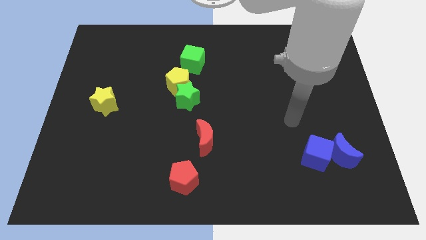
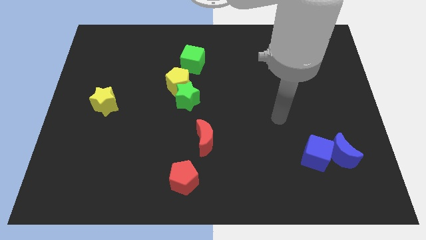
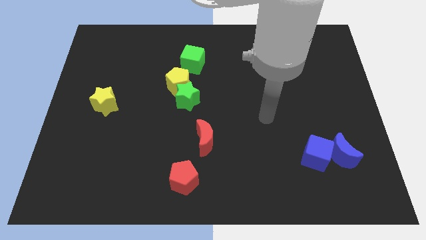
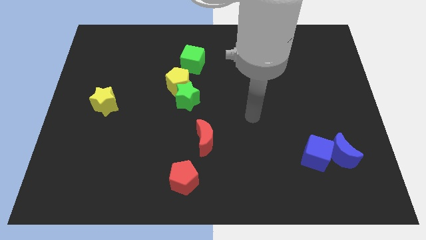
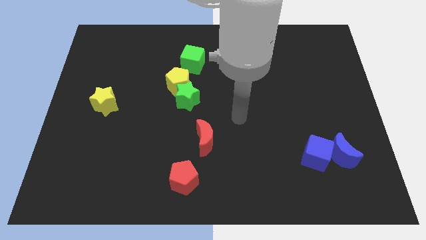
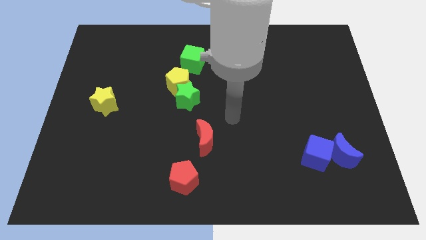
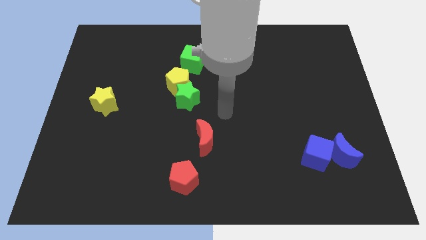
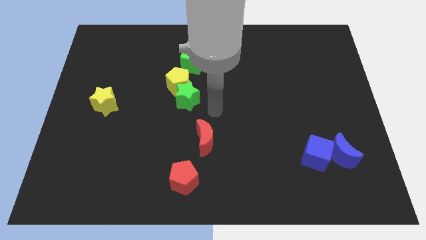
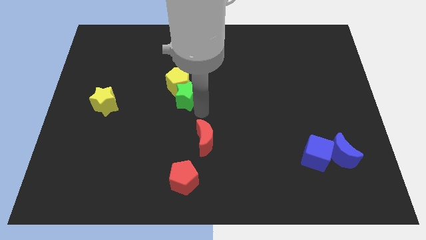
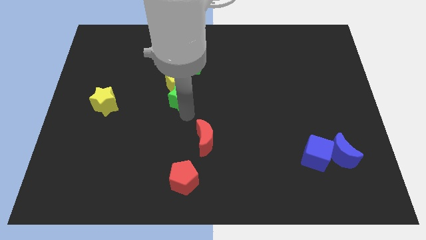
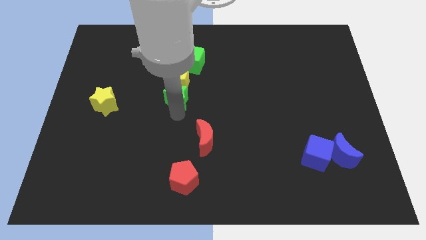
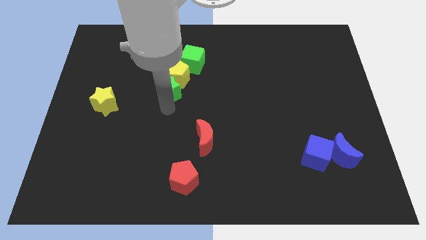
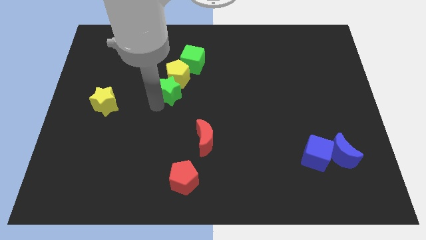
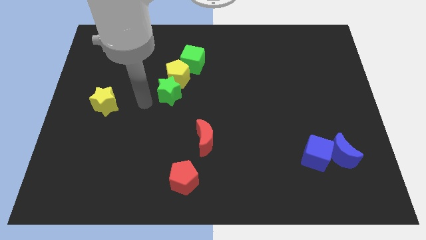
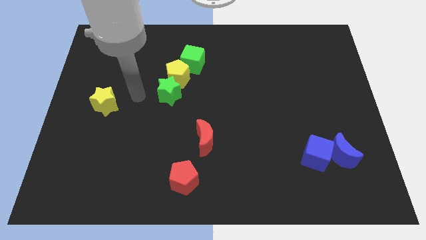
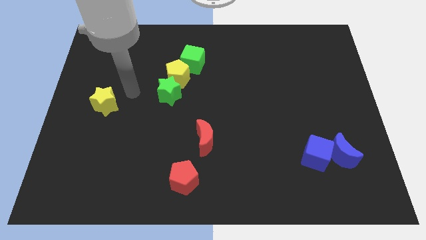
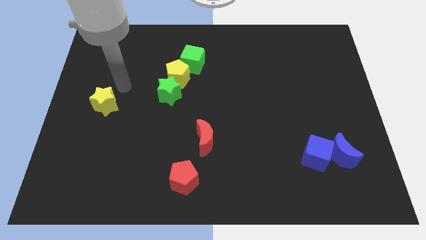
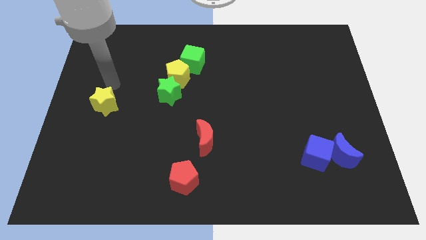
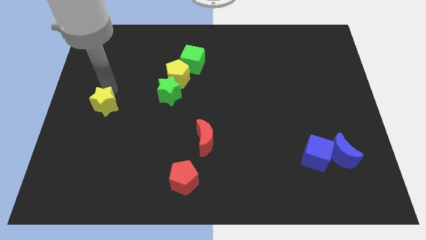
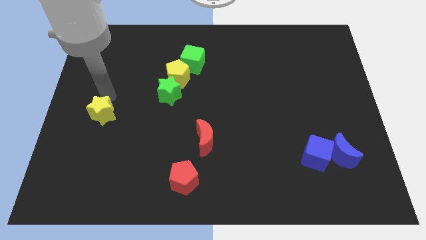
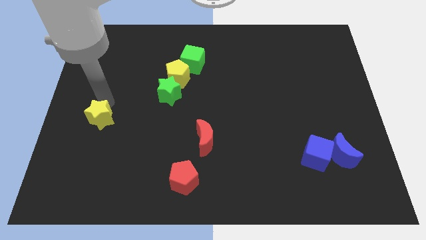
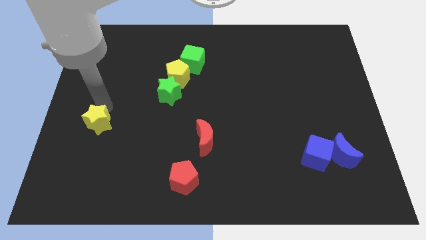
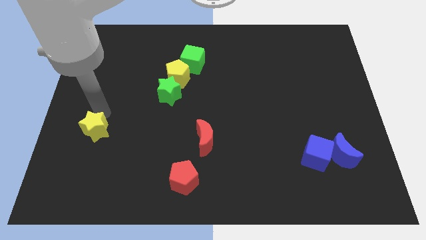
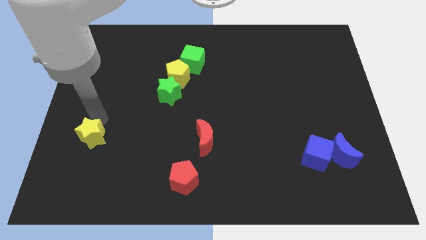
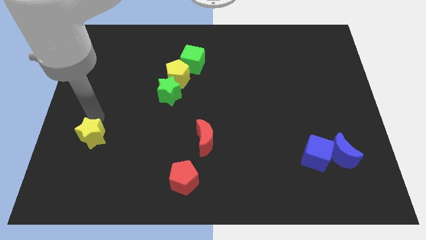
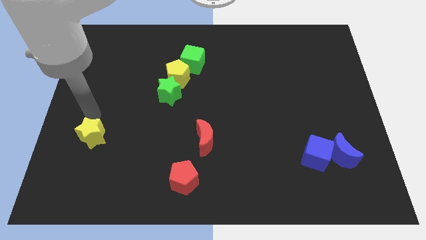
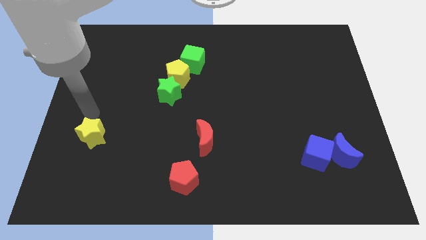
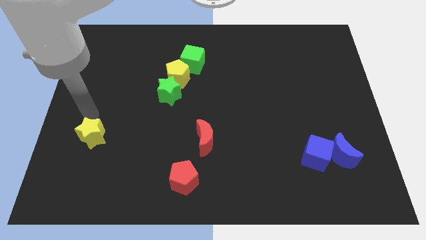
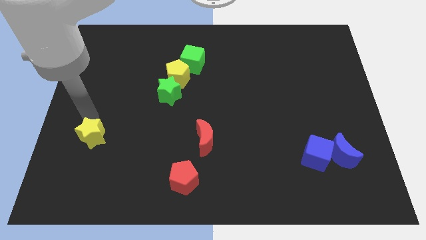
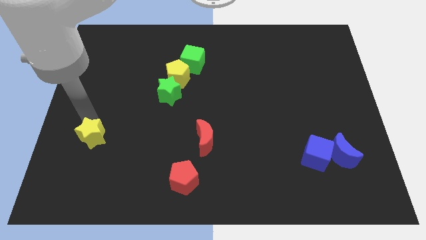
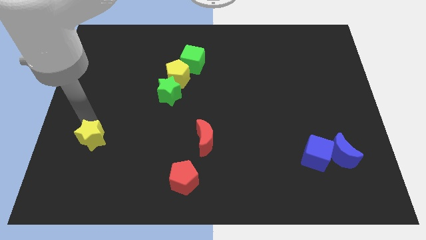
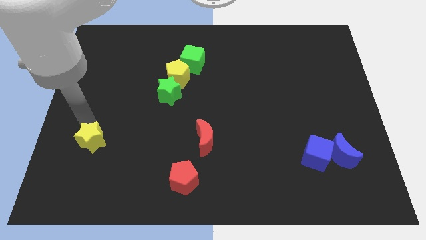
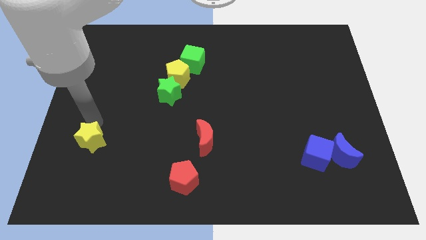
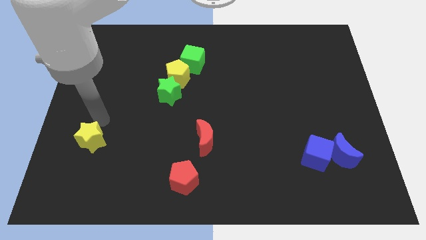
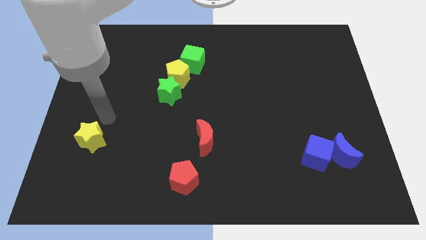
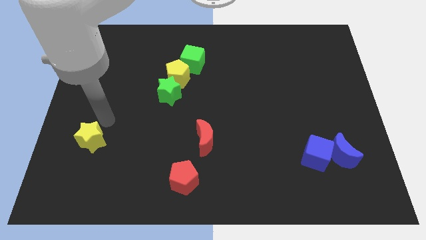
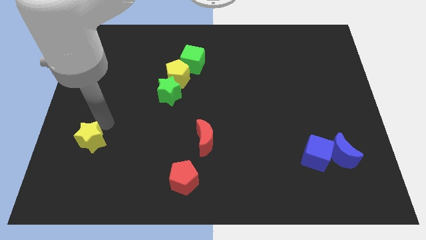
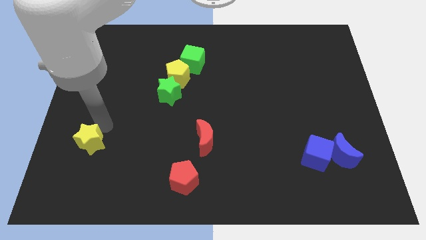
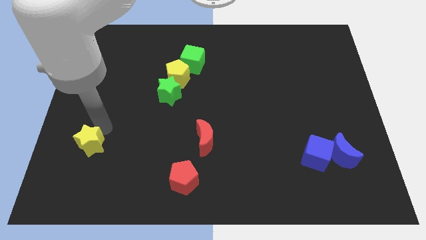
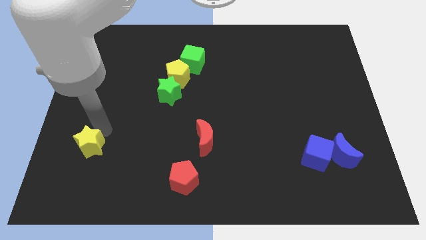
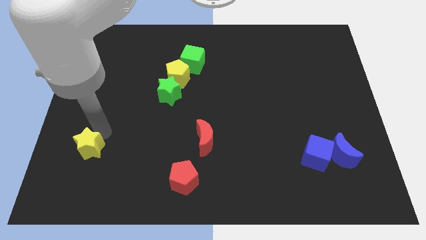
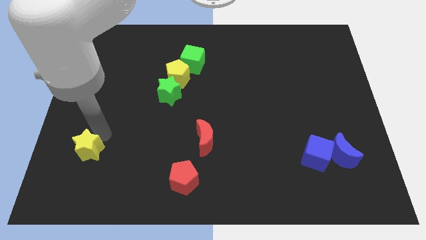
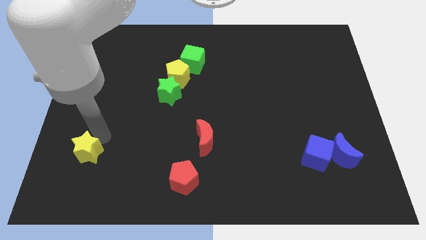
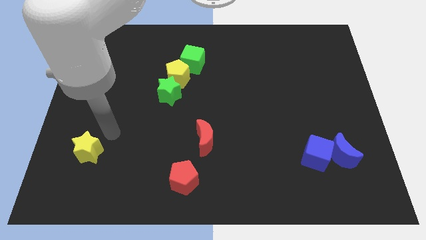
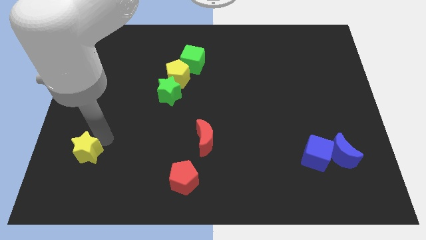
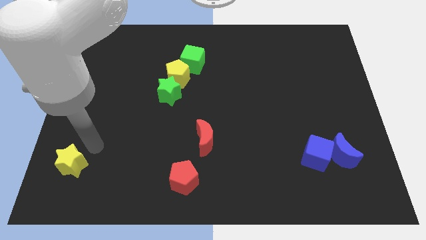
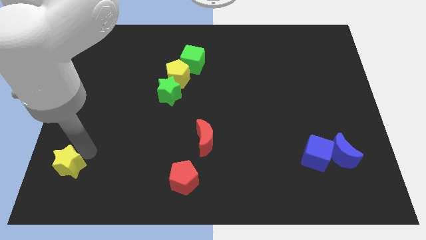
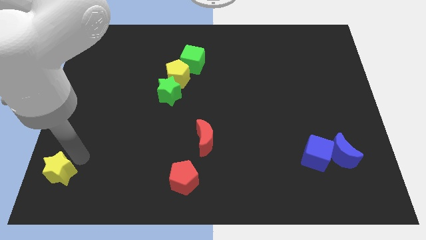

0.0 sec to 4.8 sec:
move the yellow star to the bottom left of the board

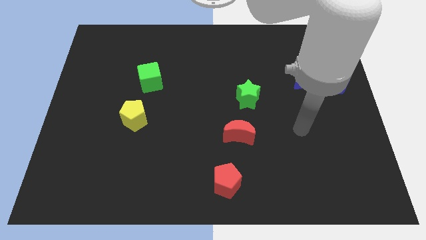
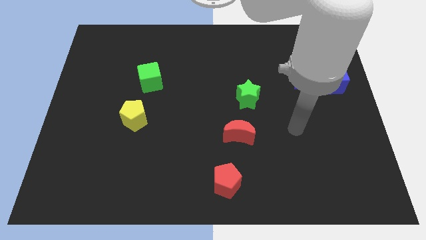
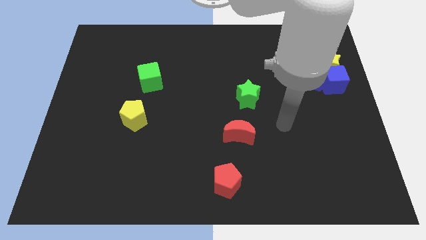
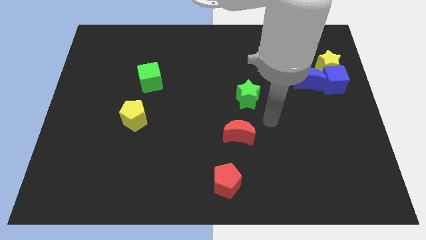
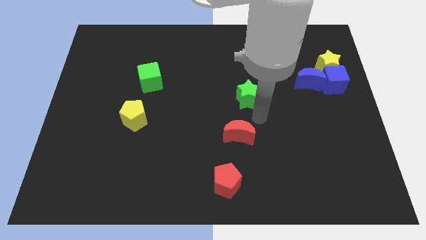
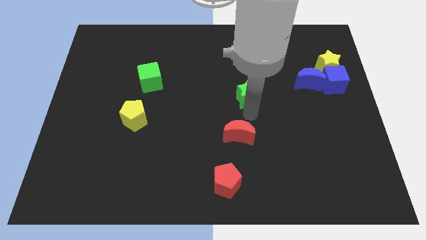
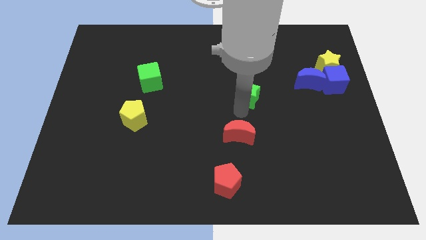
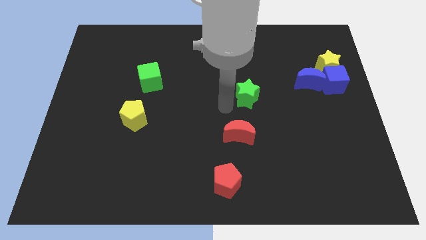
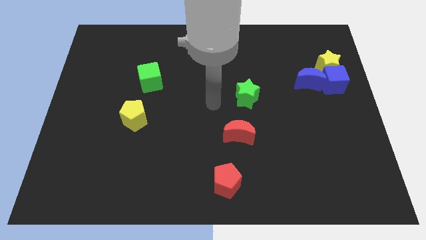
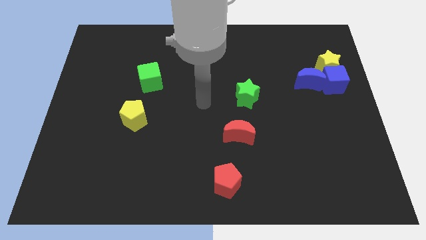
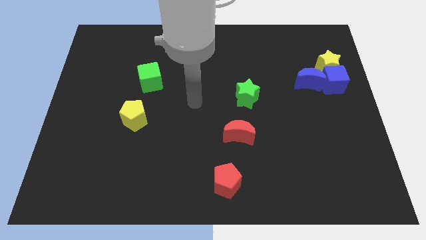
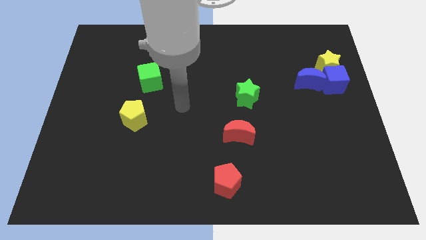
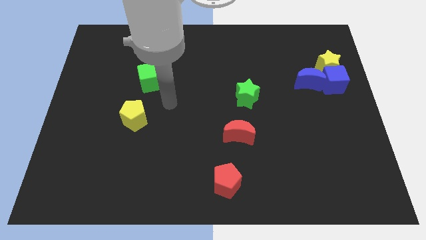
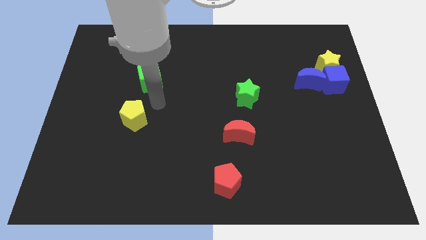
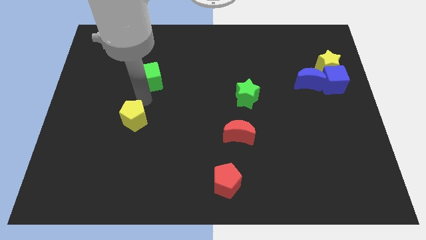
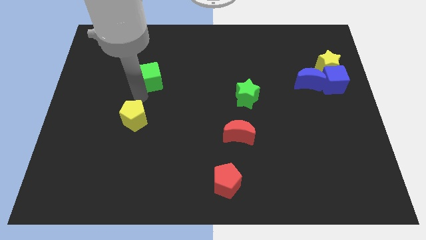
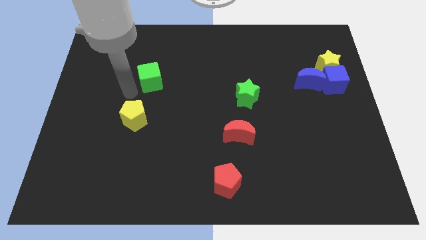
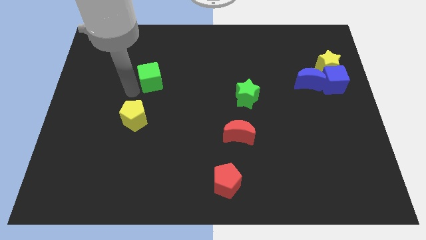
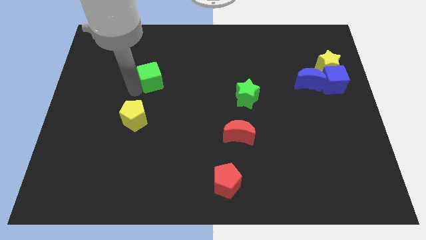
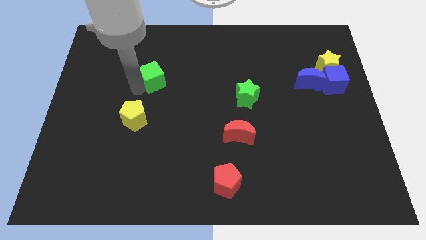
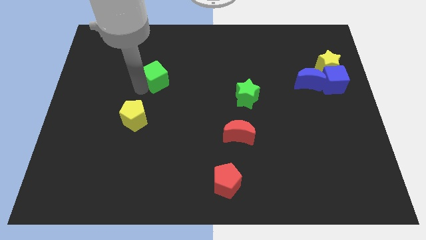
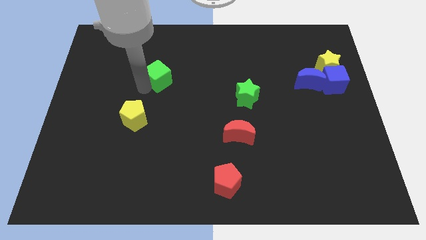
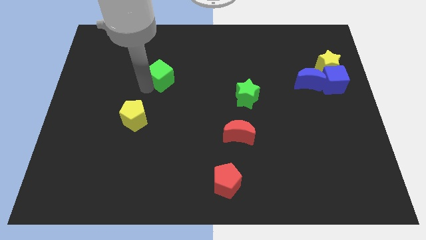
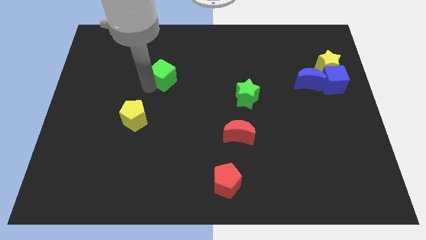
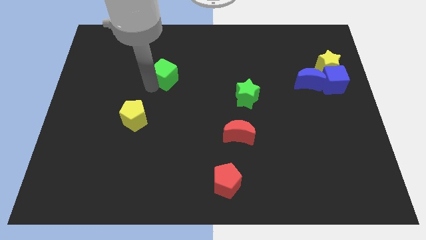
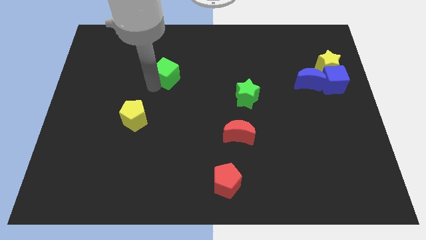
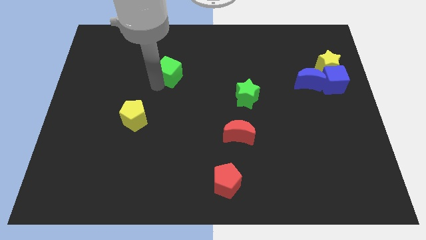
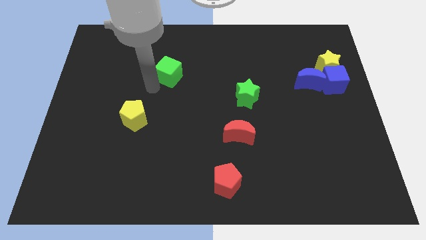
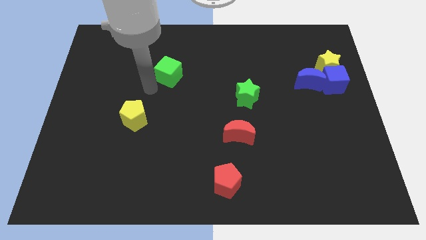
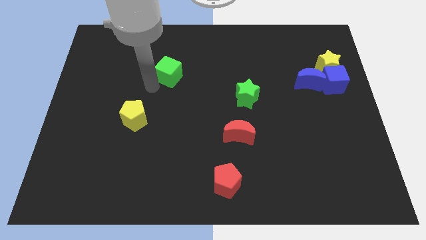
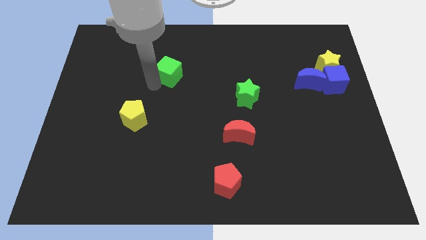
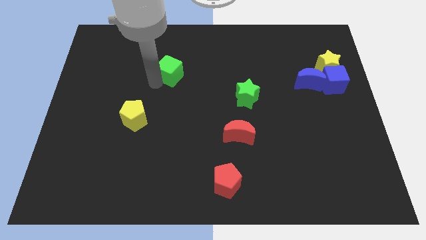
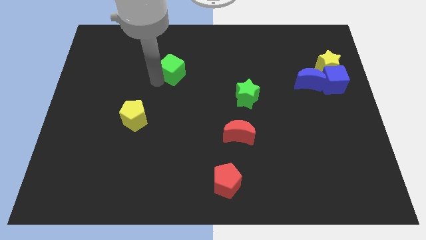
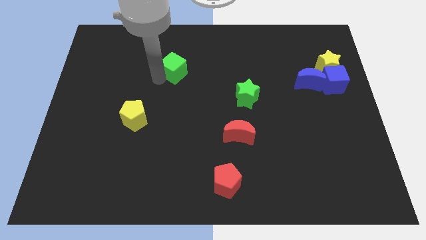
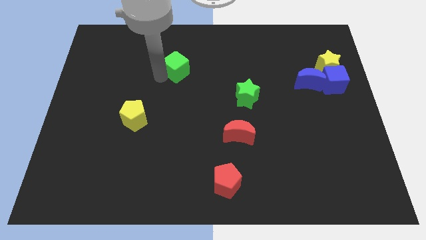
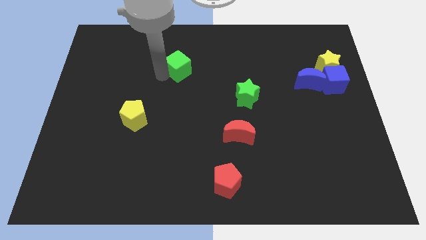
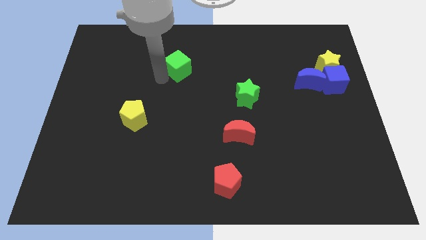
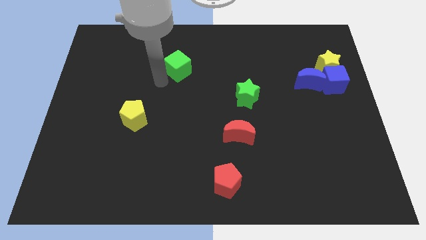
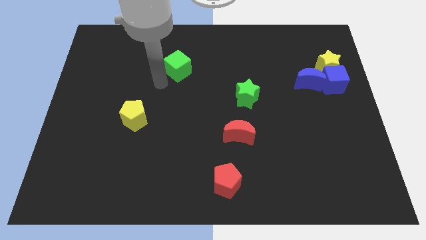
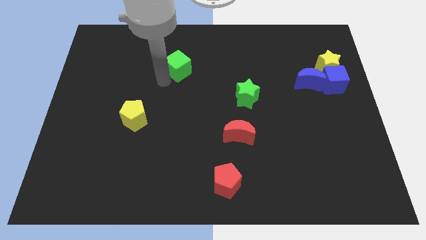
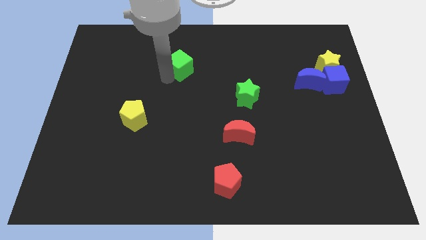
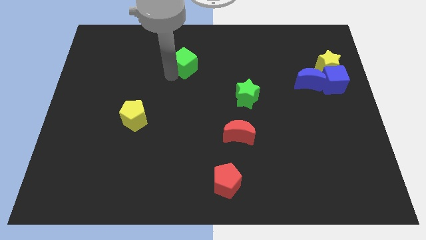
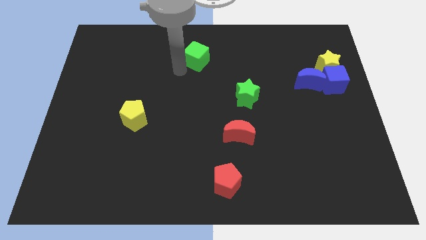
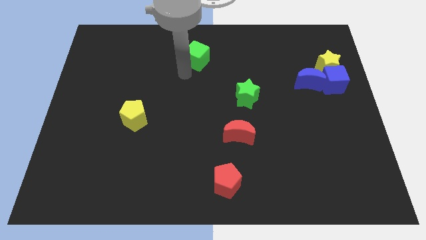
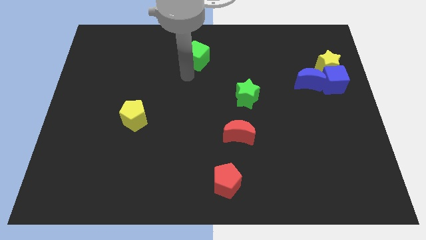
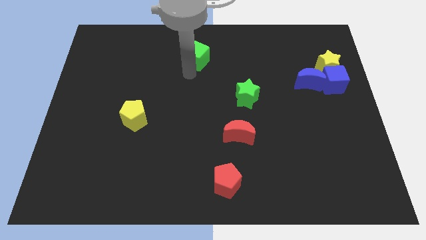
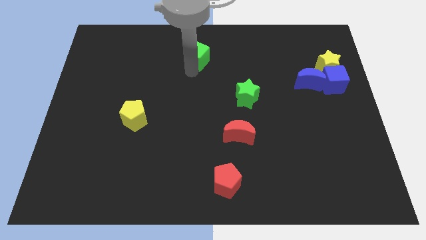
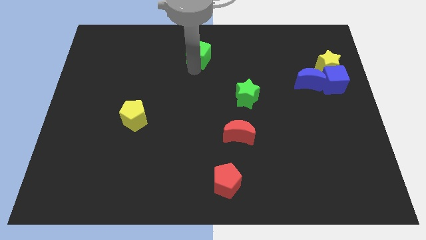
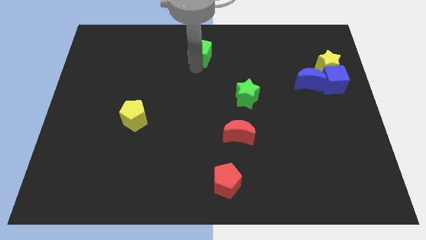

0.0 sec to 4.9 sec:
move the green cube to the top side
